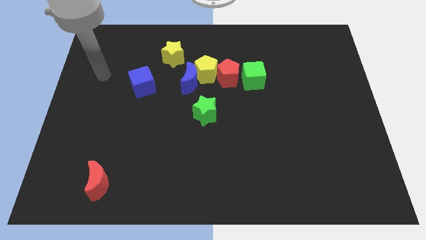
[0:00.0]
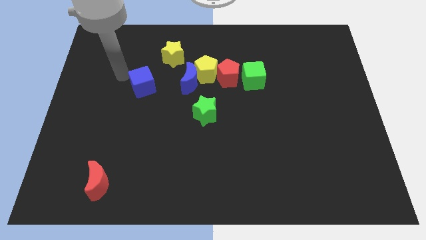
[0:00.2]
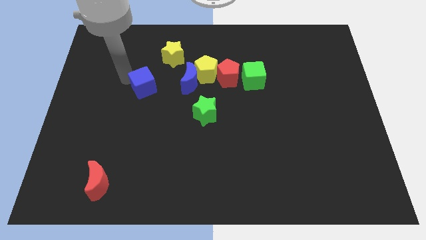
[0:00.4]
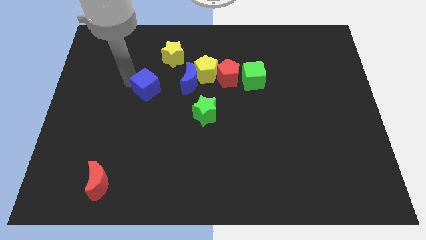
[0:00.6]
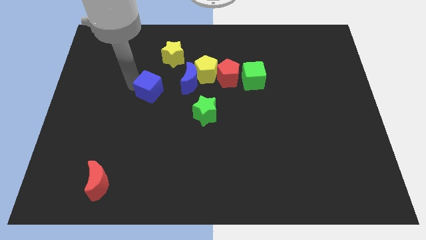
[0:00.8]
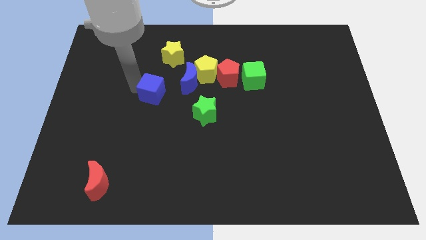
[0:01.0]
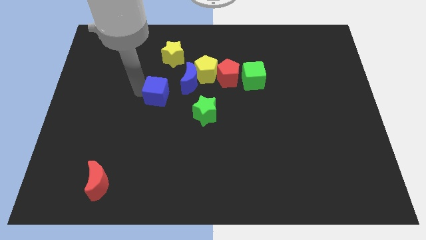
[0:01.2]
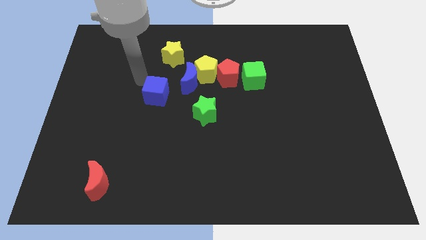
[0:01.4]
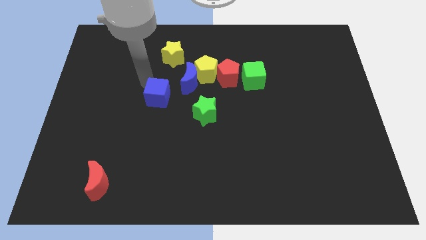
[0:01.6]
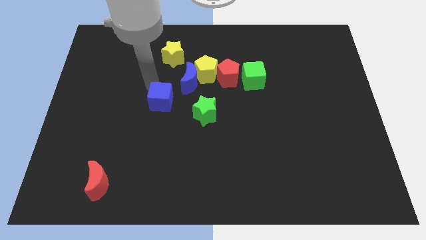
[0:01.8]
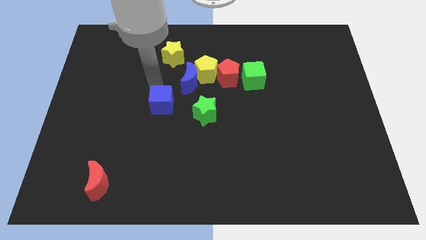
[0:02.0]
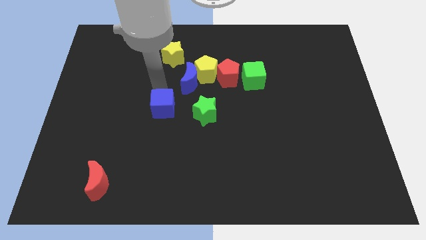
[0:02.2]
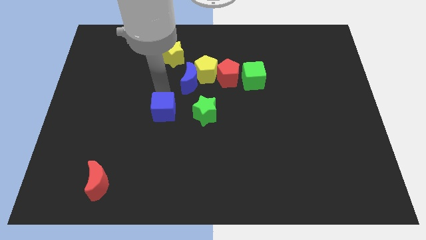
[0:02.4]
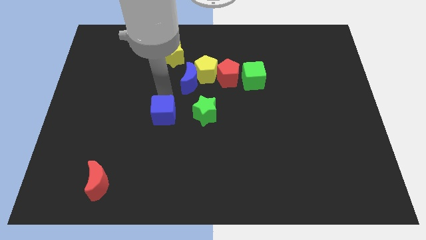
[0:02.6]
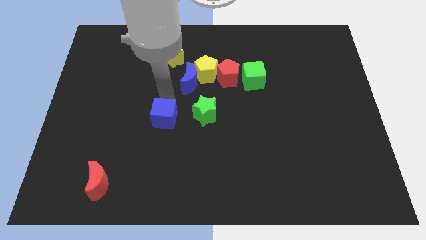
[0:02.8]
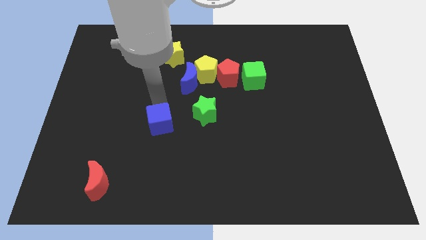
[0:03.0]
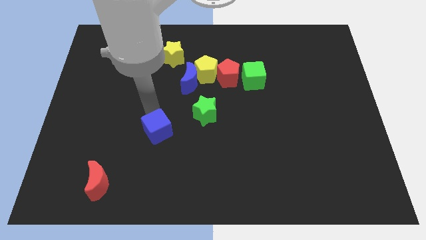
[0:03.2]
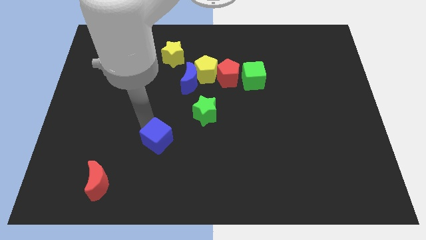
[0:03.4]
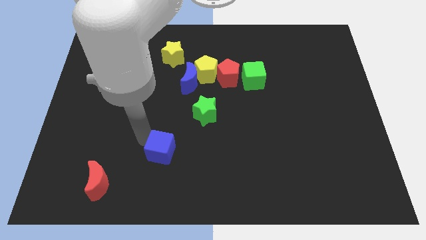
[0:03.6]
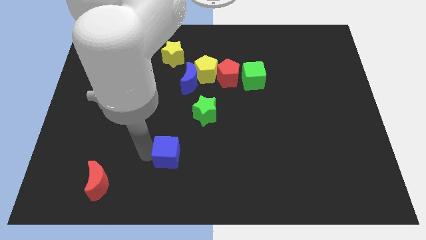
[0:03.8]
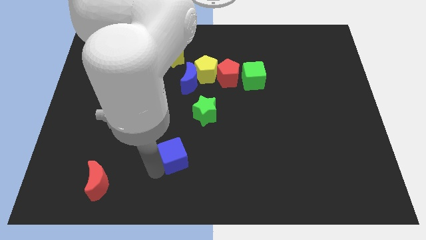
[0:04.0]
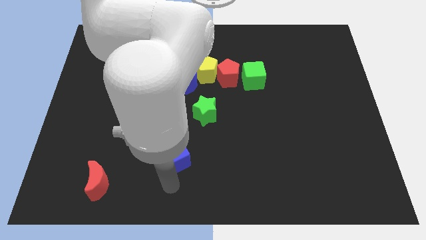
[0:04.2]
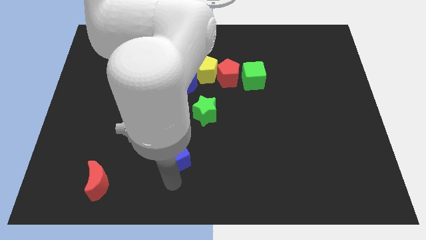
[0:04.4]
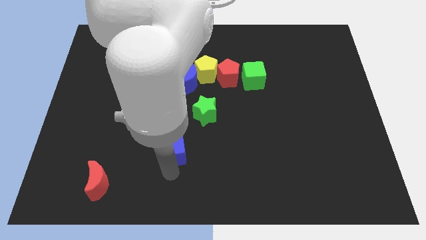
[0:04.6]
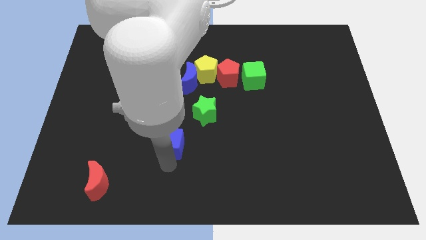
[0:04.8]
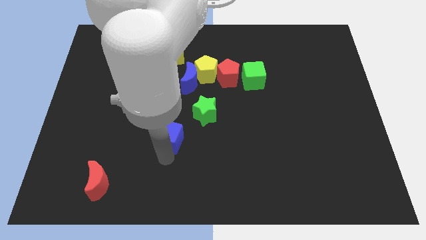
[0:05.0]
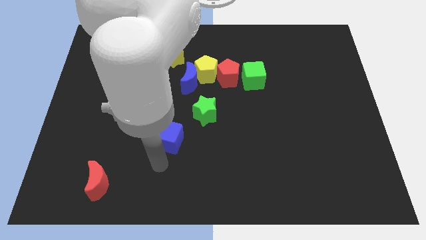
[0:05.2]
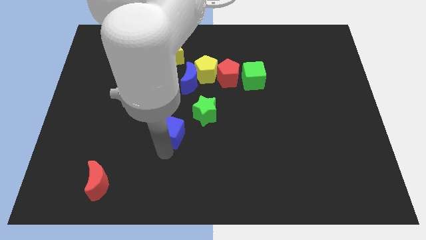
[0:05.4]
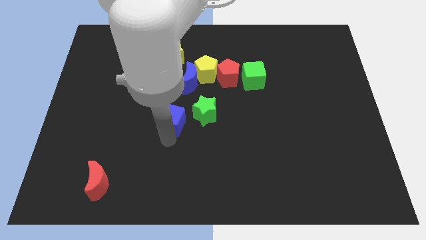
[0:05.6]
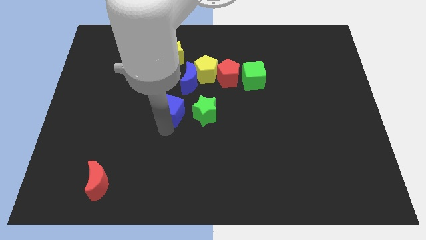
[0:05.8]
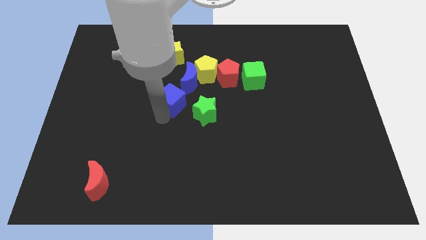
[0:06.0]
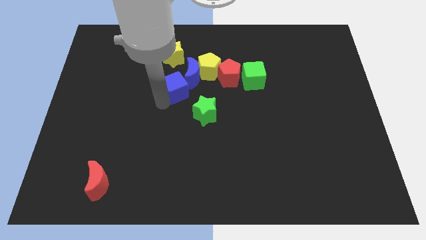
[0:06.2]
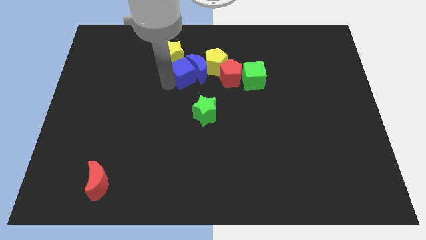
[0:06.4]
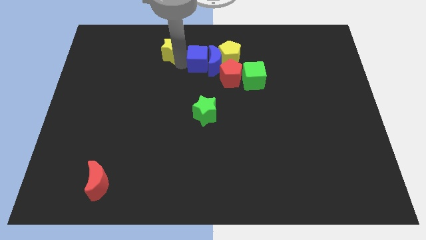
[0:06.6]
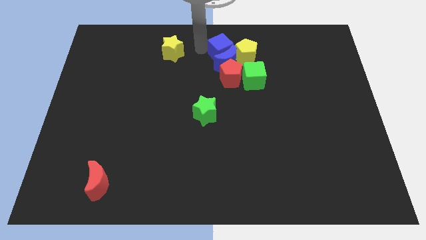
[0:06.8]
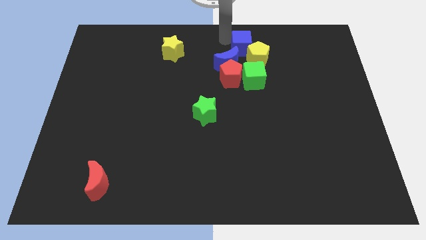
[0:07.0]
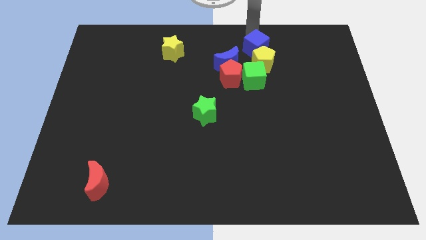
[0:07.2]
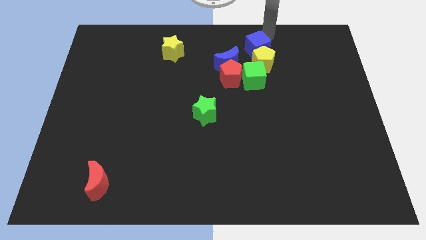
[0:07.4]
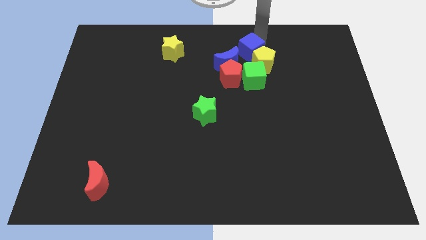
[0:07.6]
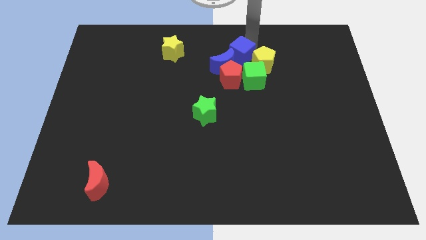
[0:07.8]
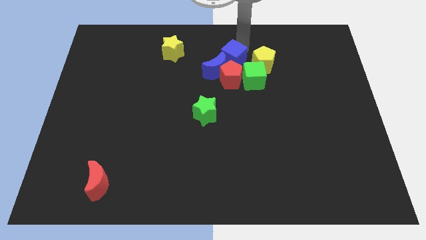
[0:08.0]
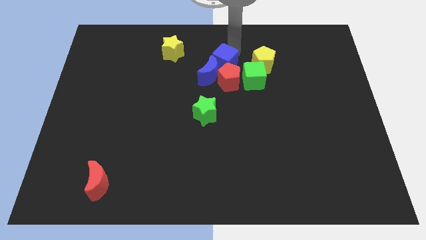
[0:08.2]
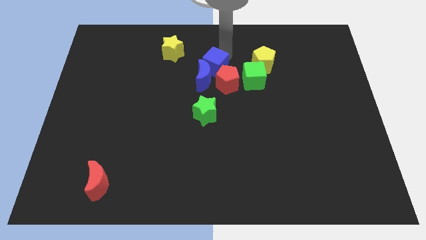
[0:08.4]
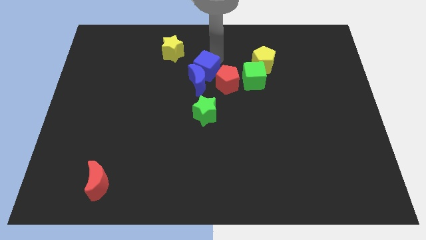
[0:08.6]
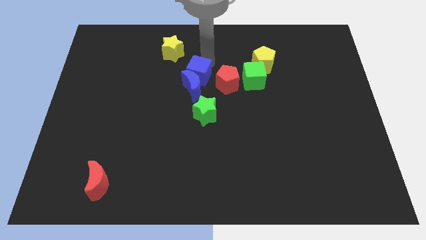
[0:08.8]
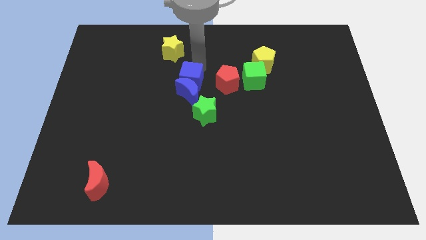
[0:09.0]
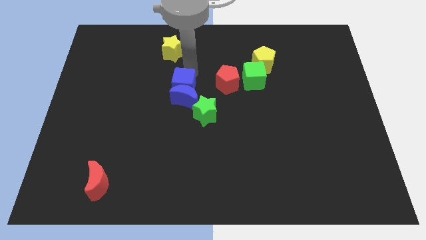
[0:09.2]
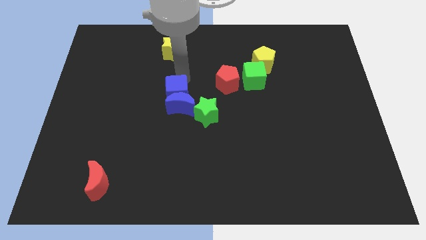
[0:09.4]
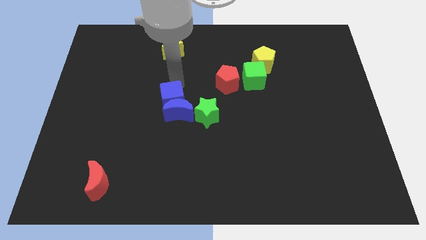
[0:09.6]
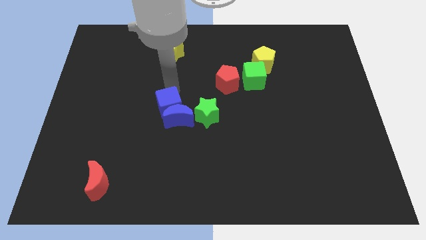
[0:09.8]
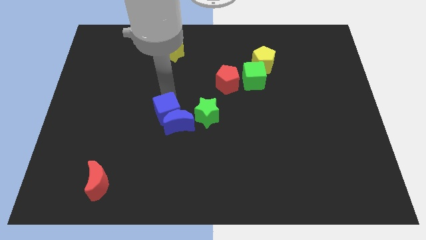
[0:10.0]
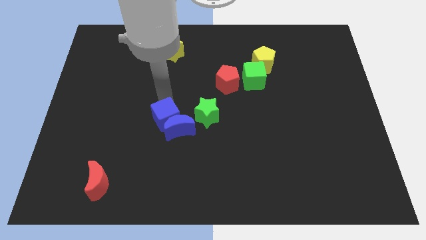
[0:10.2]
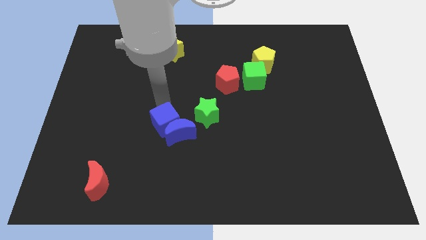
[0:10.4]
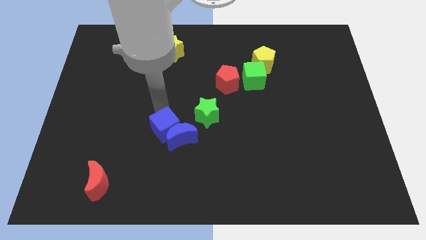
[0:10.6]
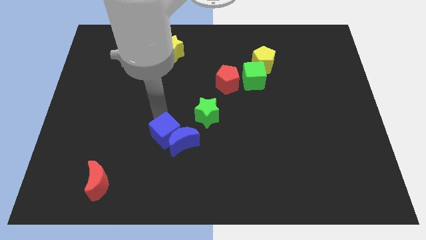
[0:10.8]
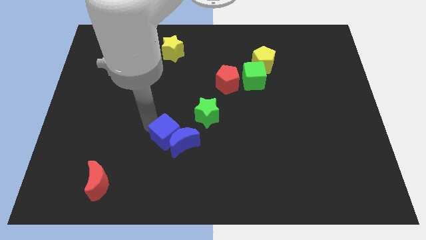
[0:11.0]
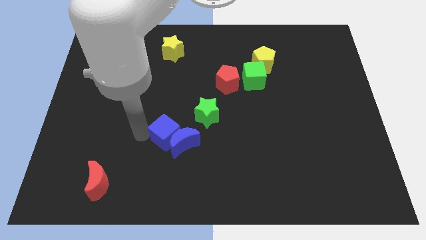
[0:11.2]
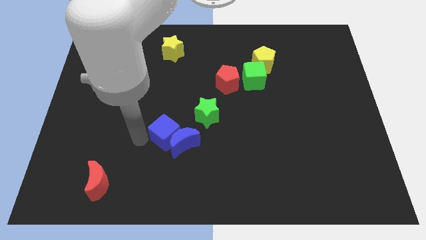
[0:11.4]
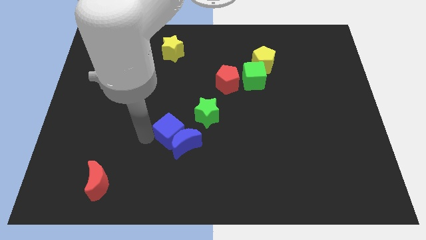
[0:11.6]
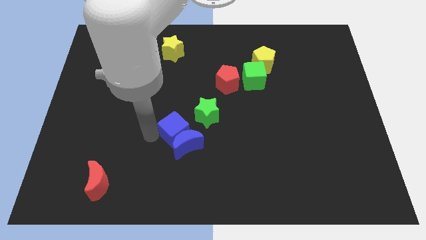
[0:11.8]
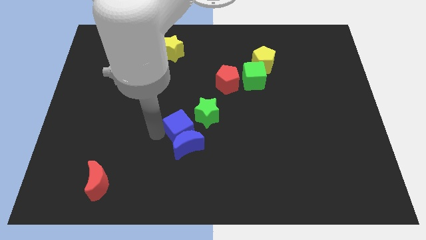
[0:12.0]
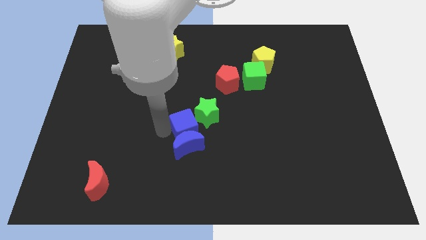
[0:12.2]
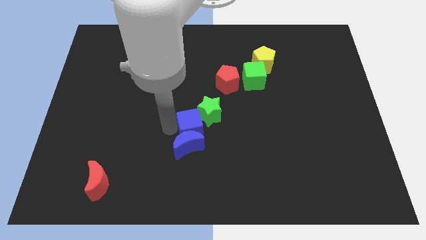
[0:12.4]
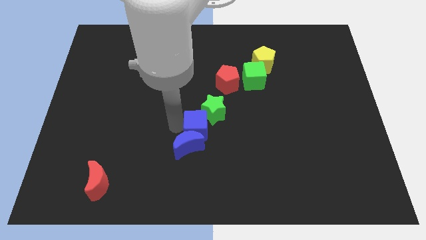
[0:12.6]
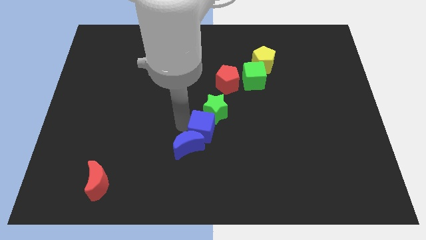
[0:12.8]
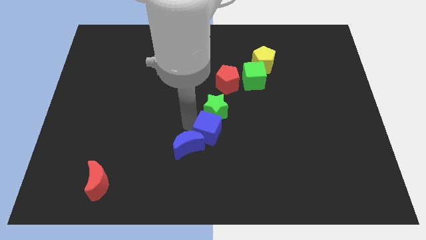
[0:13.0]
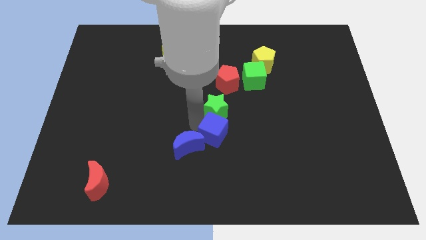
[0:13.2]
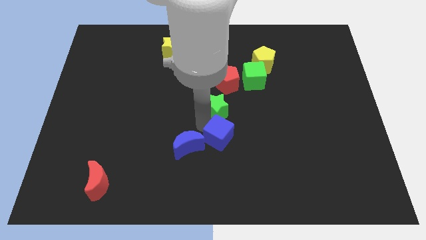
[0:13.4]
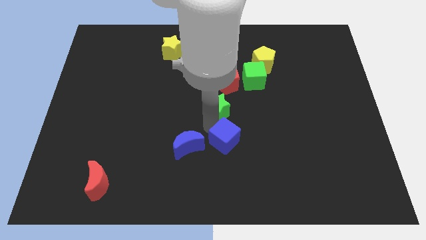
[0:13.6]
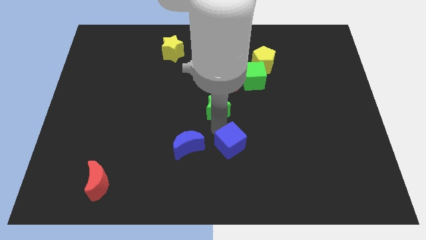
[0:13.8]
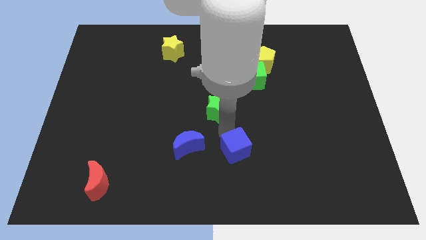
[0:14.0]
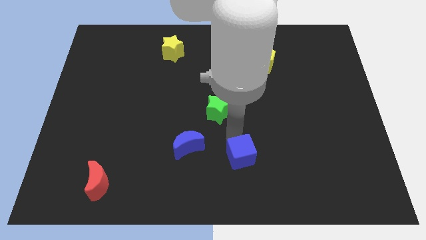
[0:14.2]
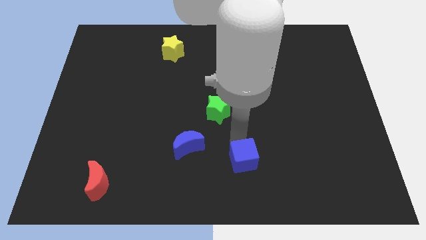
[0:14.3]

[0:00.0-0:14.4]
push the blue cube to the bottom side
